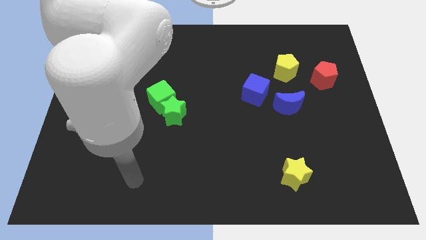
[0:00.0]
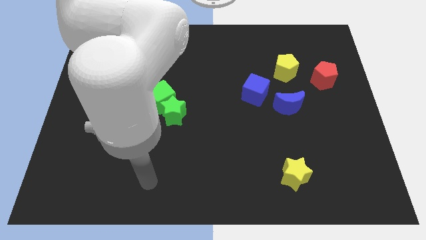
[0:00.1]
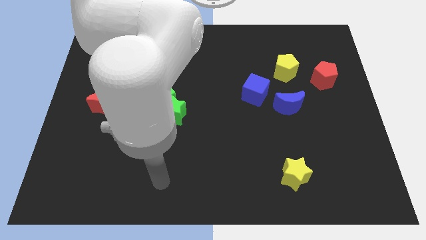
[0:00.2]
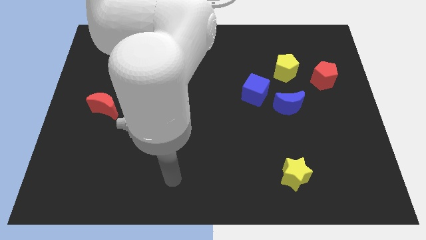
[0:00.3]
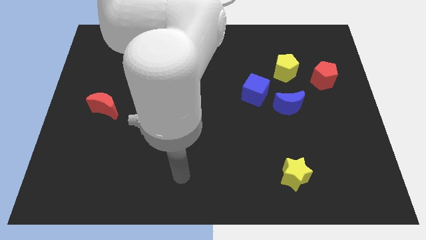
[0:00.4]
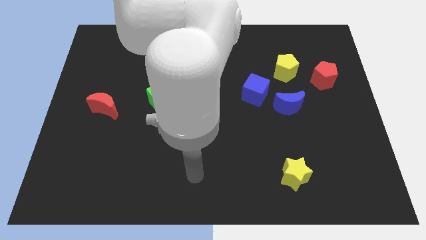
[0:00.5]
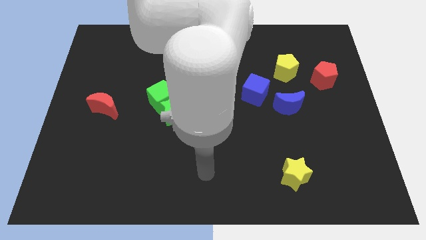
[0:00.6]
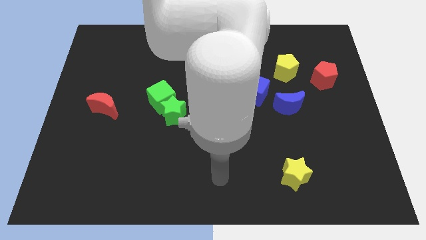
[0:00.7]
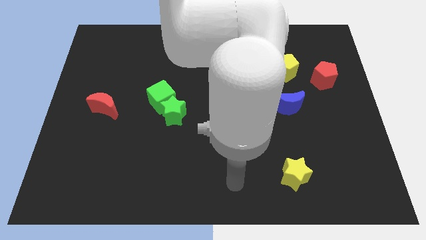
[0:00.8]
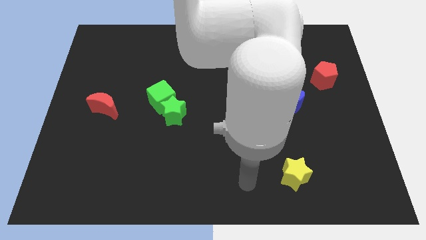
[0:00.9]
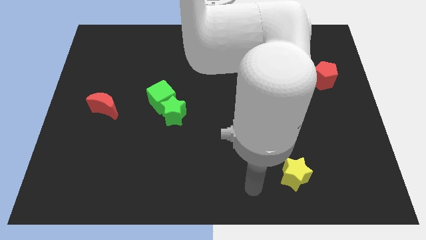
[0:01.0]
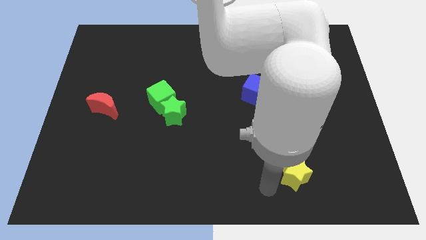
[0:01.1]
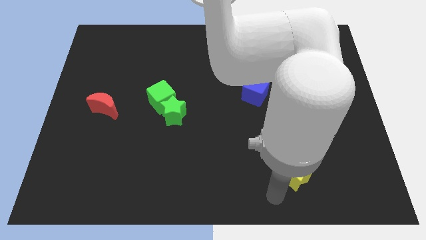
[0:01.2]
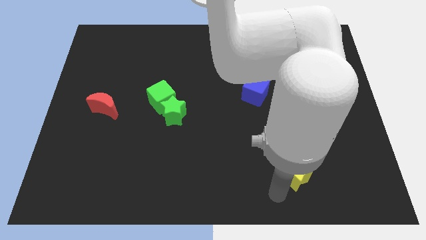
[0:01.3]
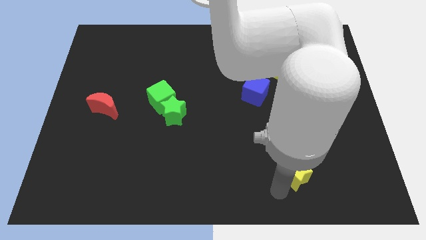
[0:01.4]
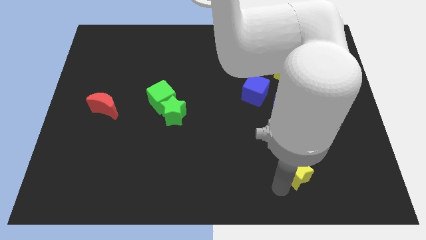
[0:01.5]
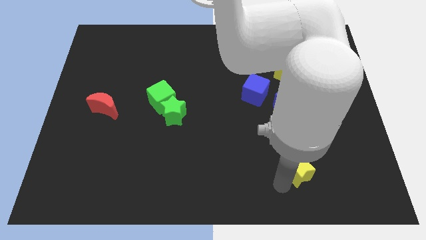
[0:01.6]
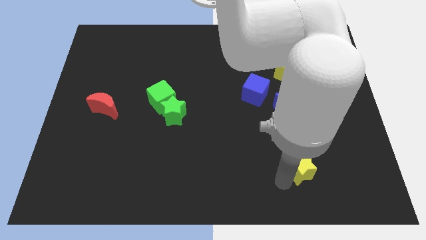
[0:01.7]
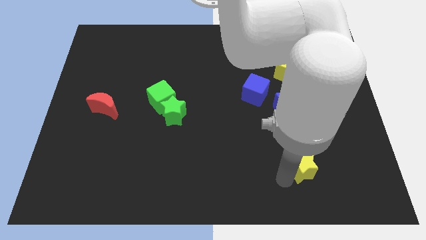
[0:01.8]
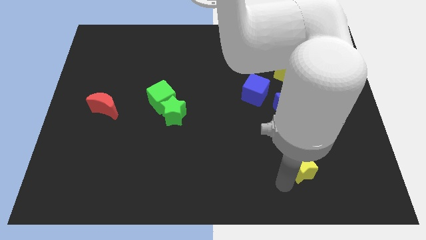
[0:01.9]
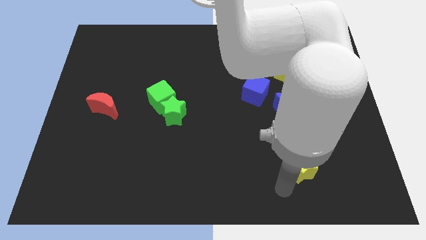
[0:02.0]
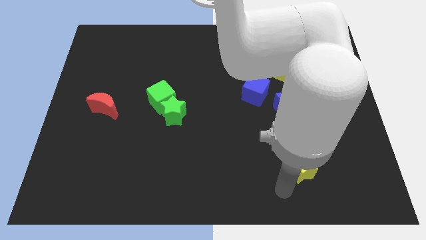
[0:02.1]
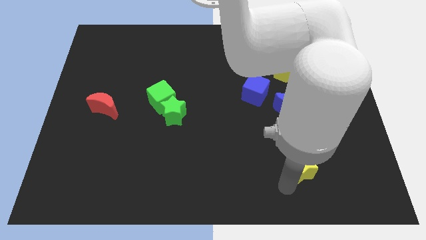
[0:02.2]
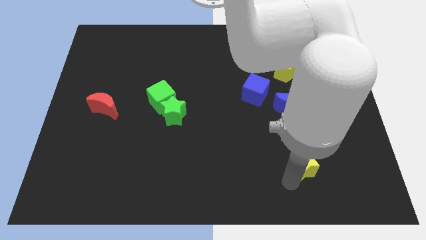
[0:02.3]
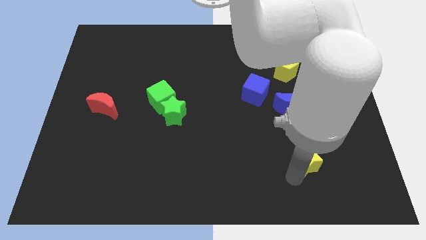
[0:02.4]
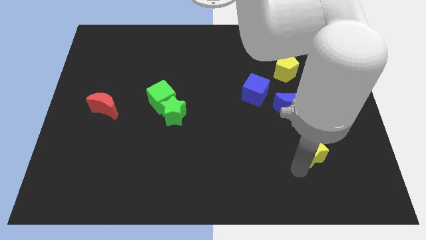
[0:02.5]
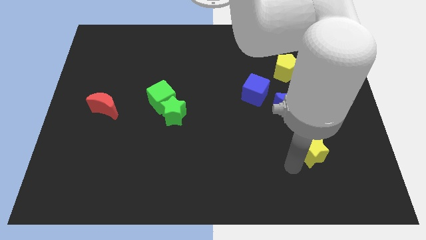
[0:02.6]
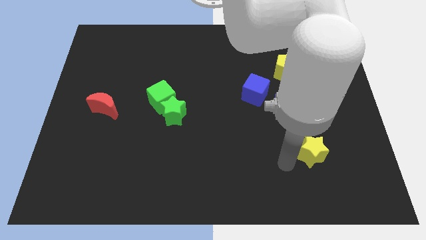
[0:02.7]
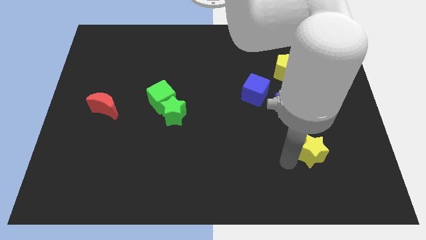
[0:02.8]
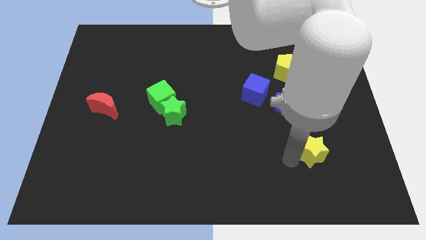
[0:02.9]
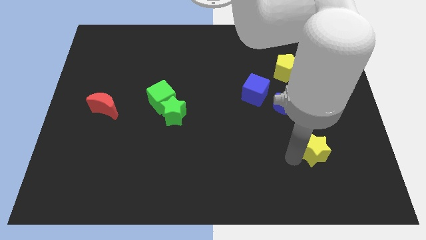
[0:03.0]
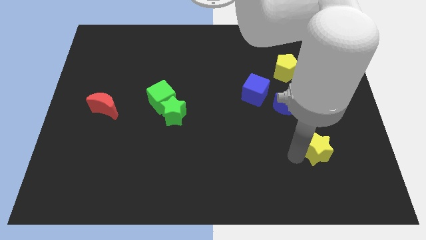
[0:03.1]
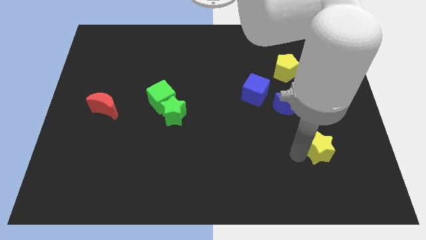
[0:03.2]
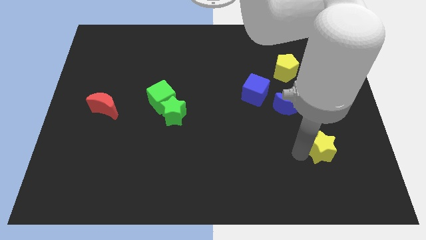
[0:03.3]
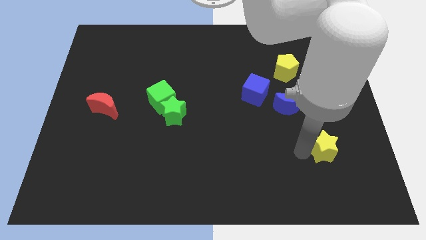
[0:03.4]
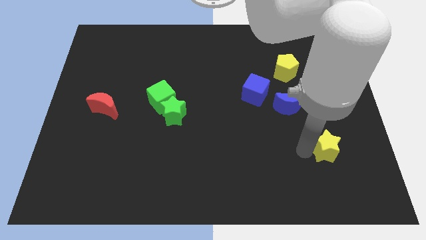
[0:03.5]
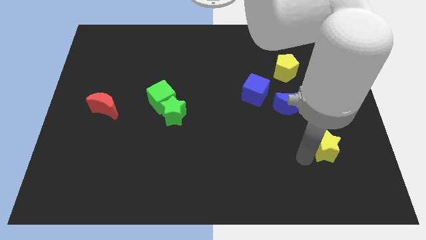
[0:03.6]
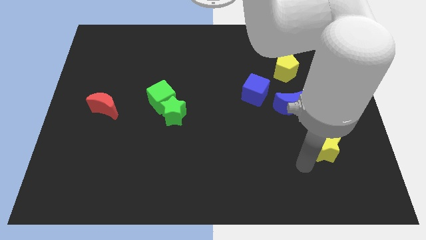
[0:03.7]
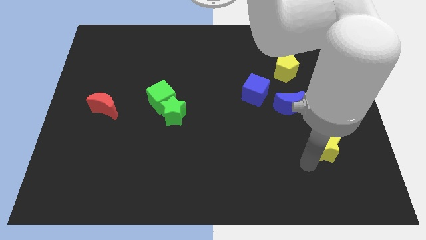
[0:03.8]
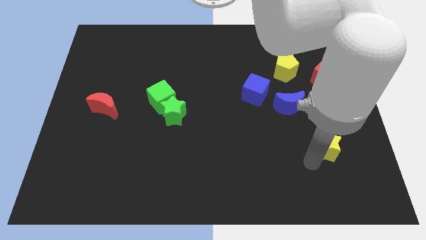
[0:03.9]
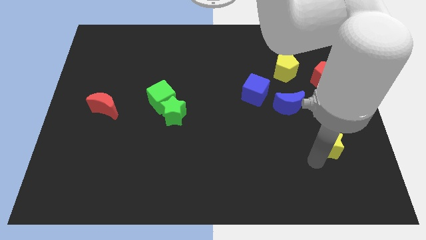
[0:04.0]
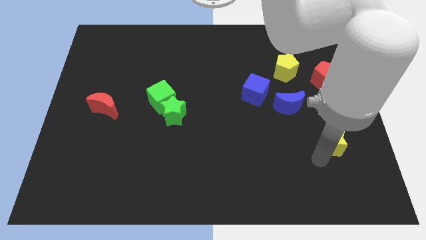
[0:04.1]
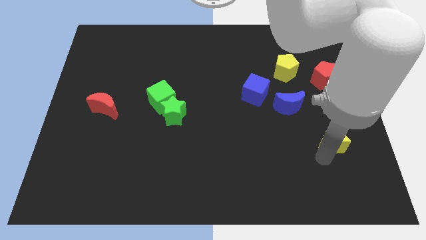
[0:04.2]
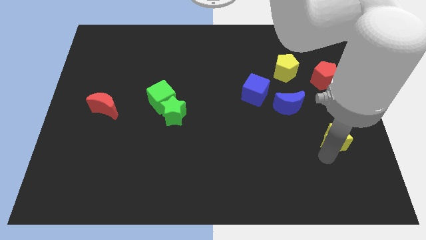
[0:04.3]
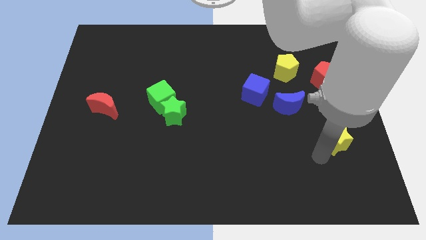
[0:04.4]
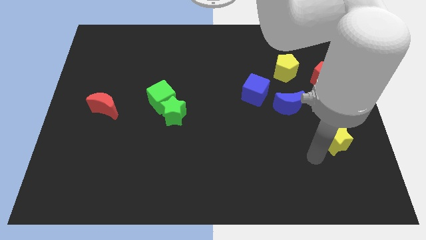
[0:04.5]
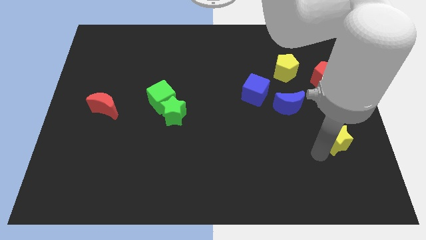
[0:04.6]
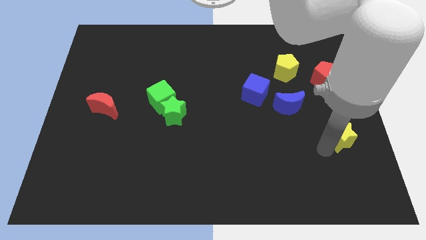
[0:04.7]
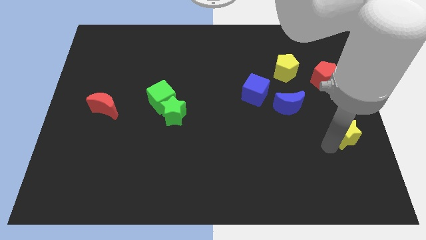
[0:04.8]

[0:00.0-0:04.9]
move the yellow star to the center right
